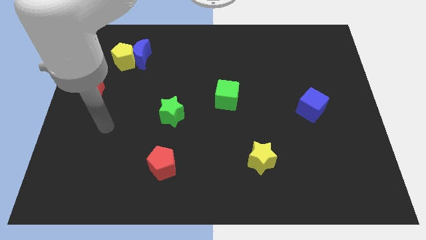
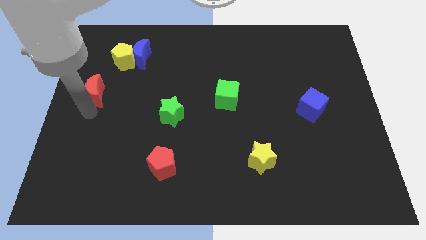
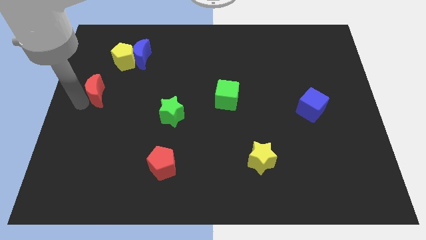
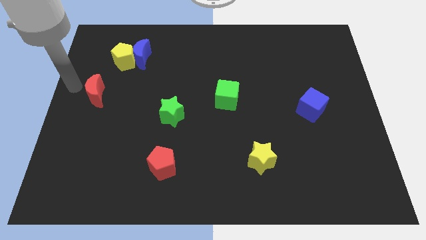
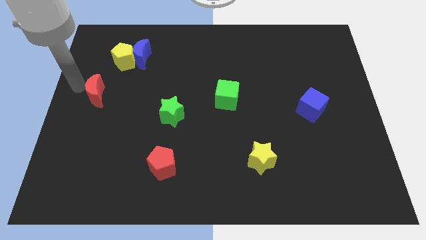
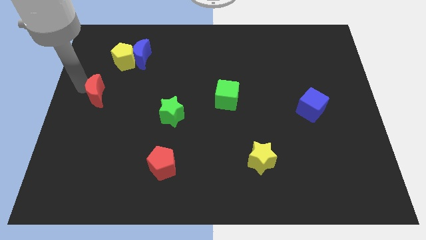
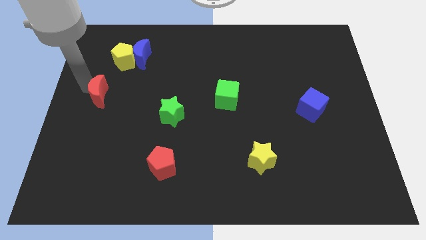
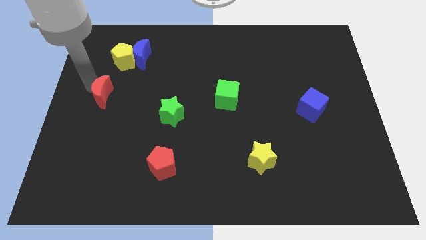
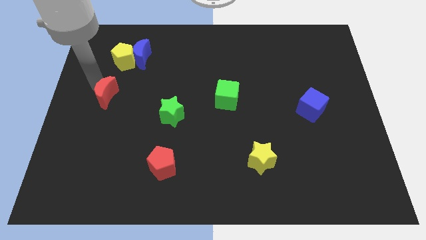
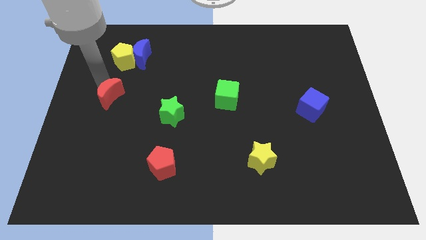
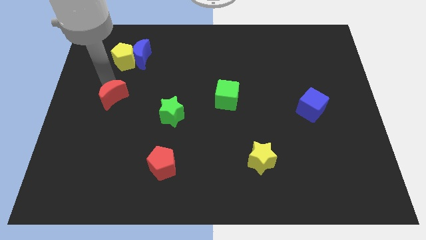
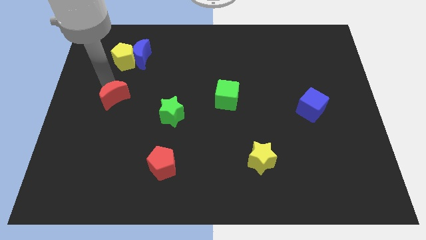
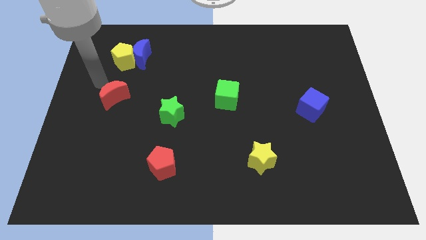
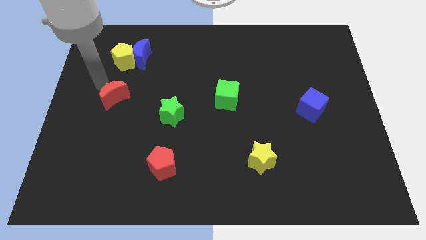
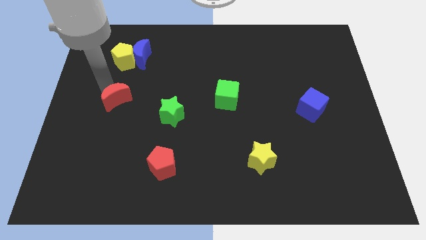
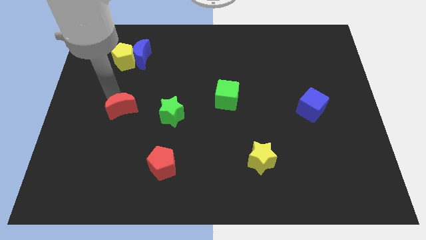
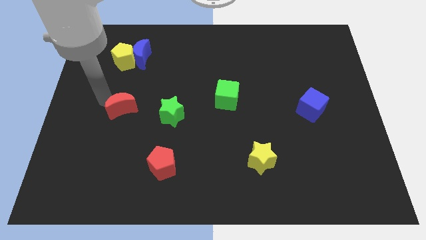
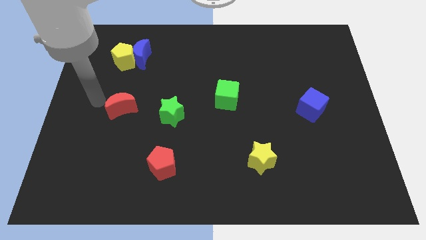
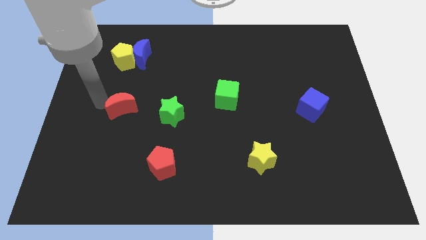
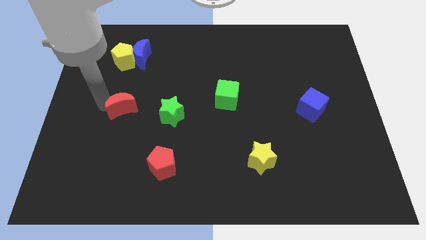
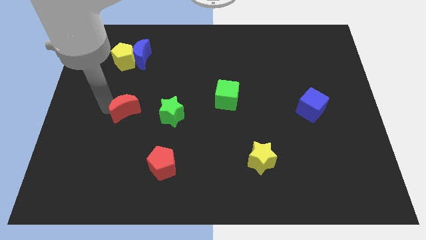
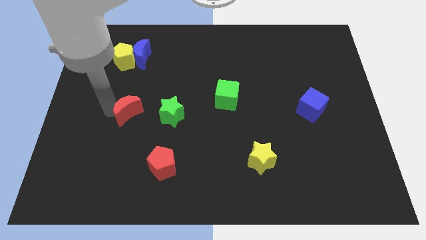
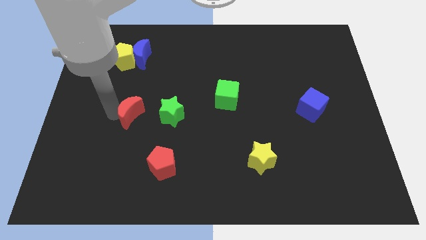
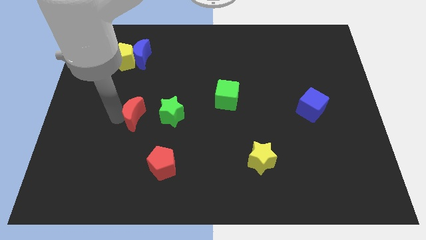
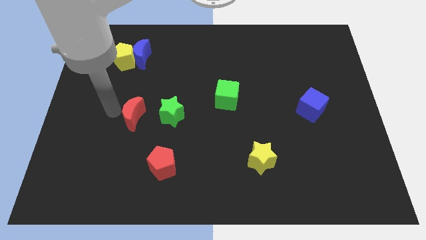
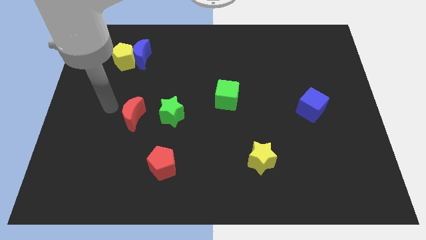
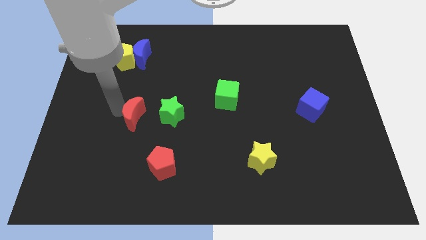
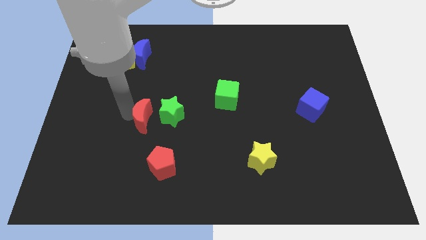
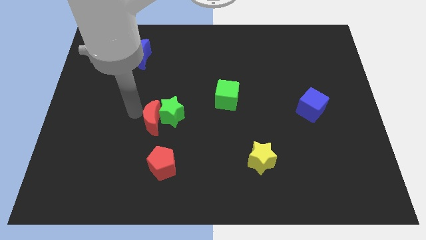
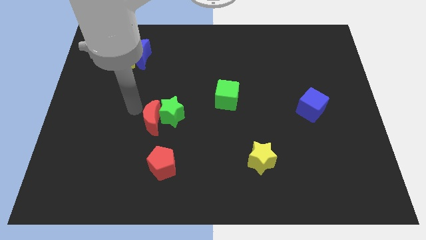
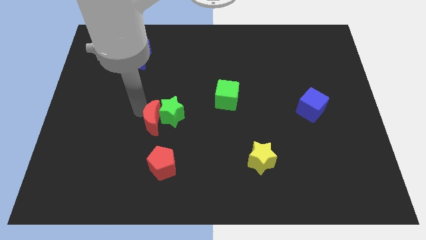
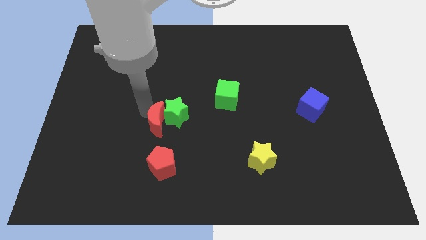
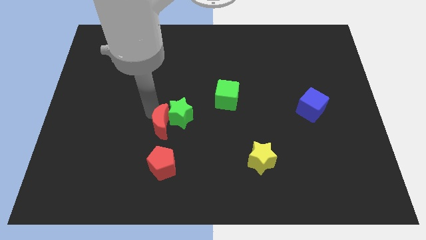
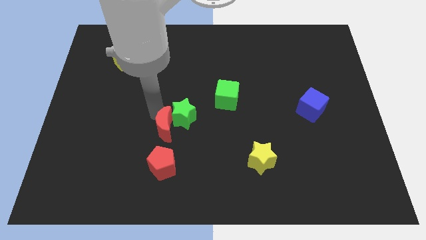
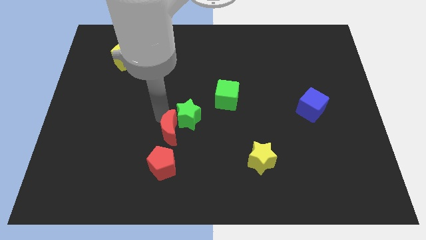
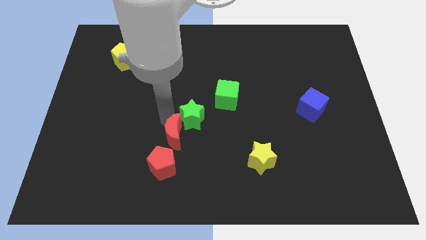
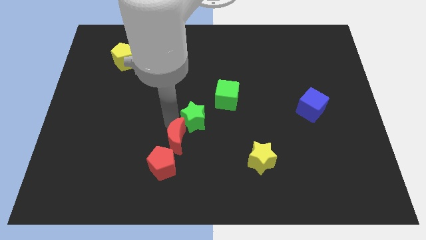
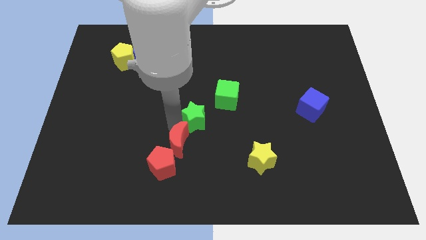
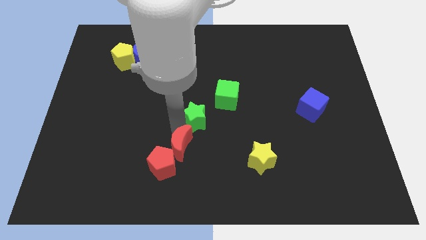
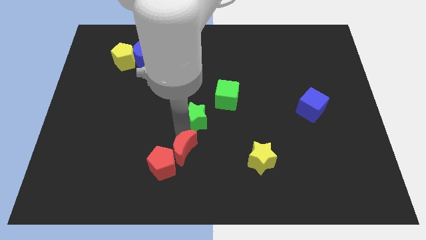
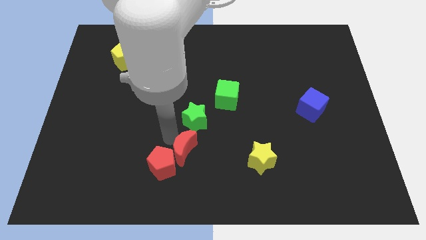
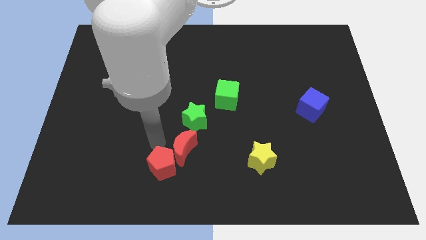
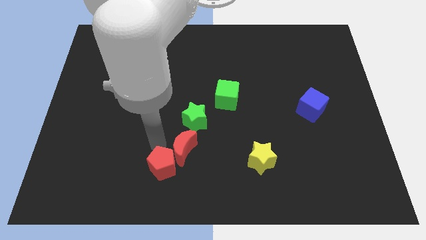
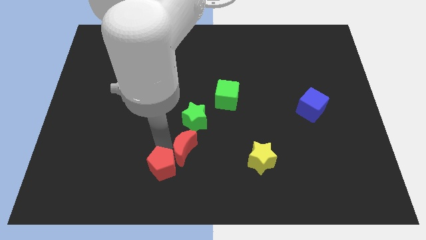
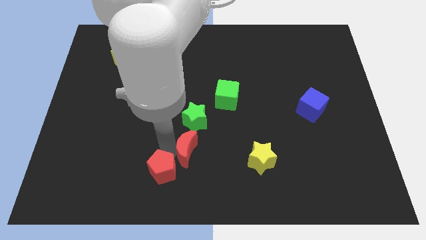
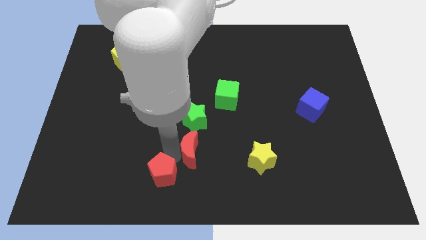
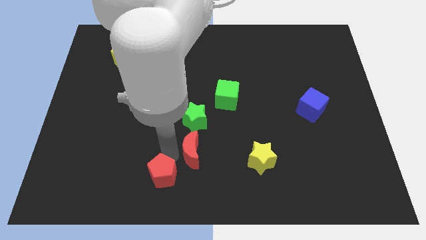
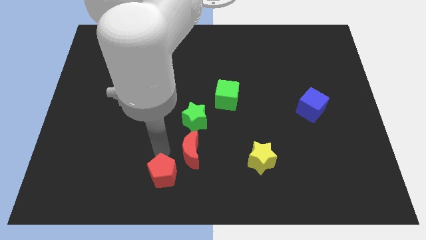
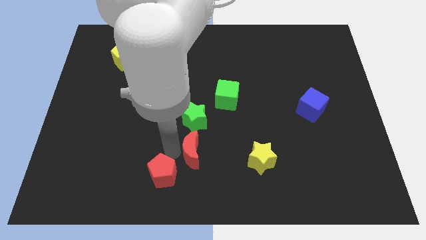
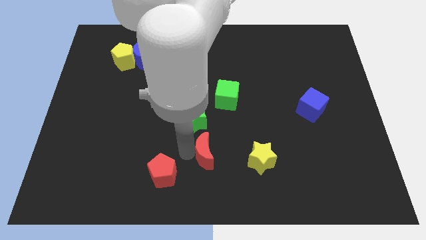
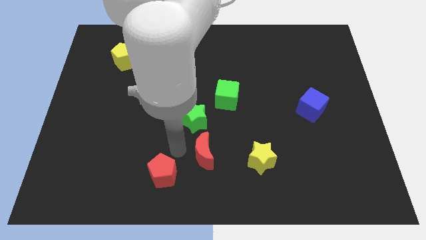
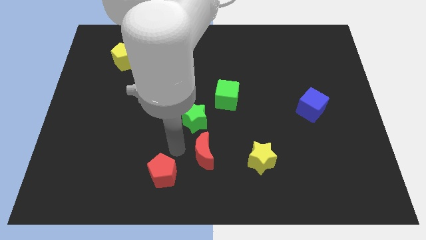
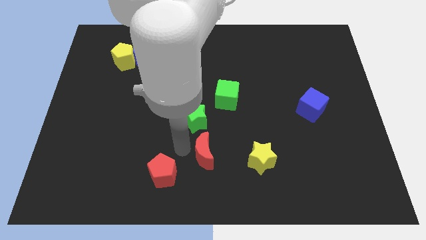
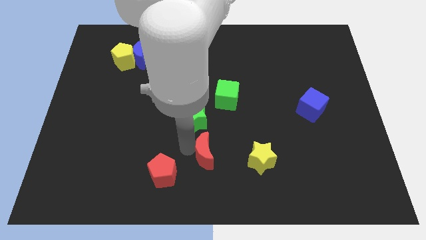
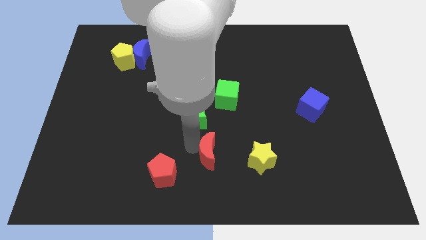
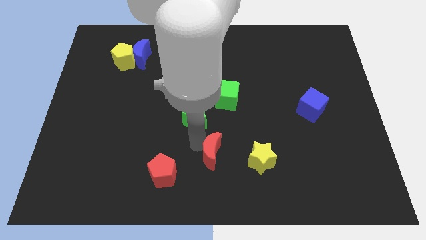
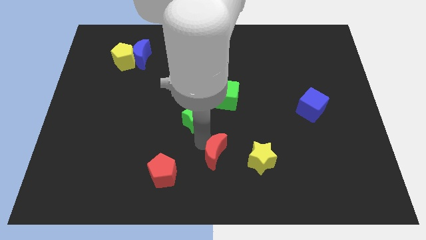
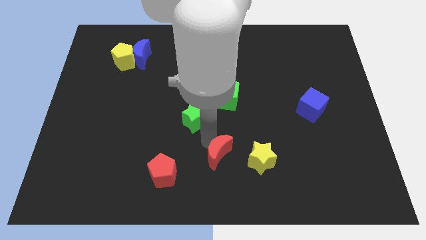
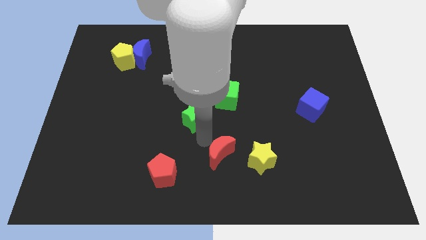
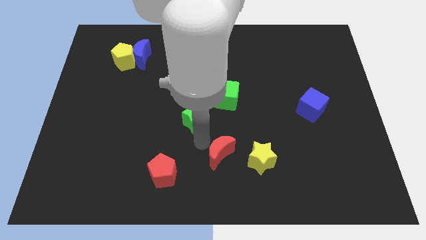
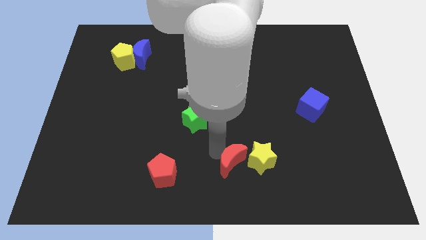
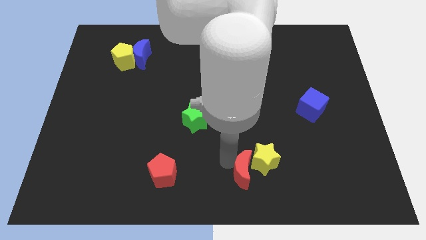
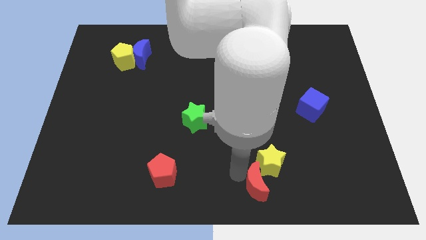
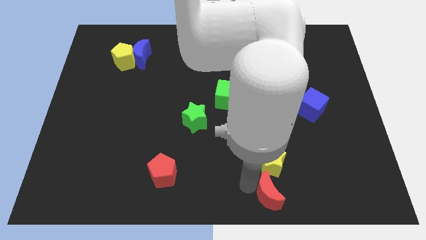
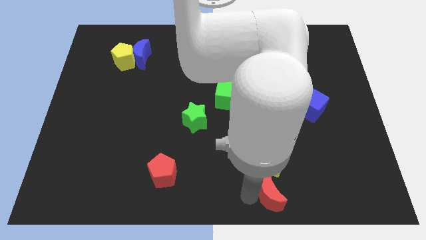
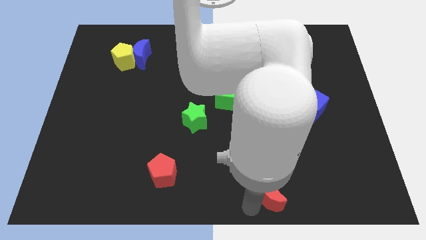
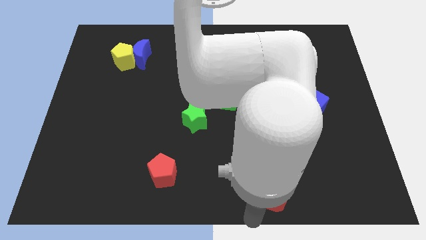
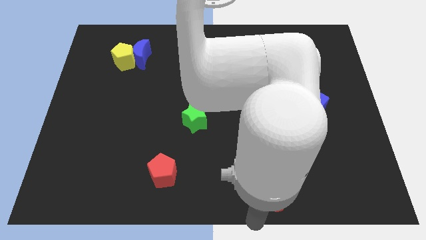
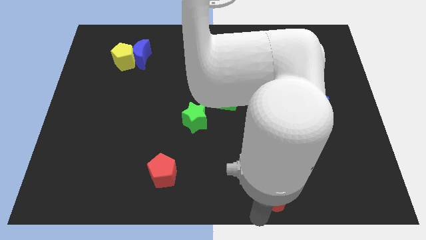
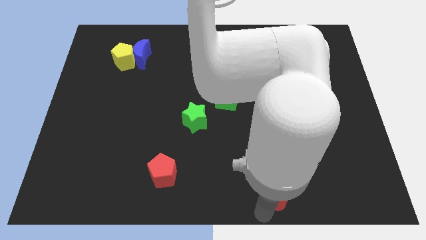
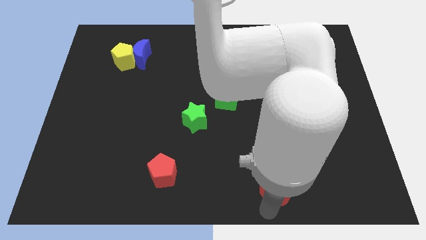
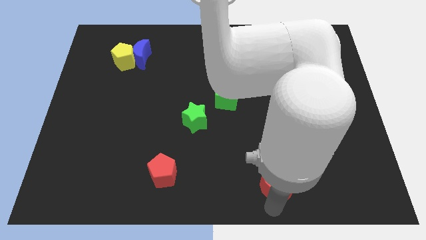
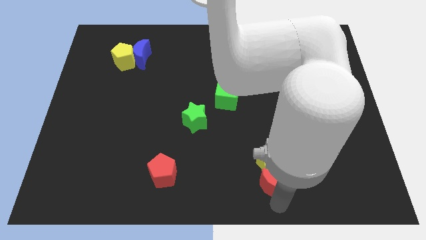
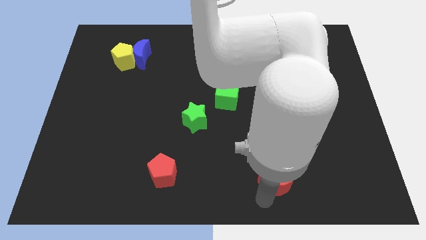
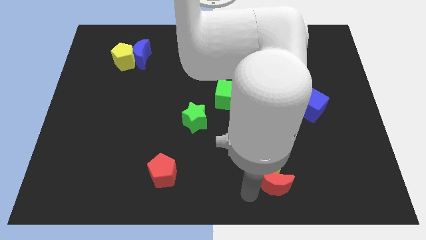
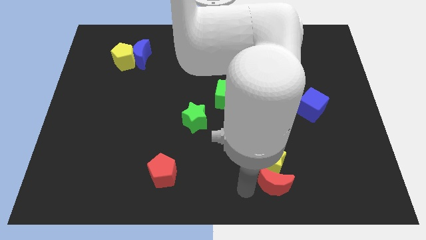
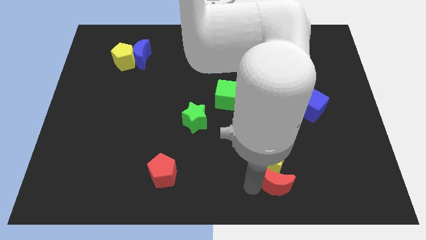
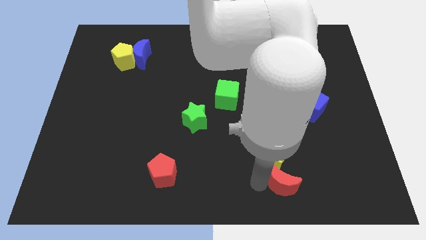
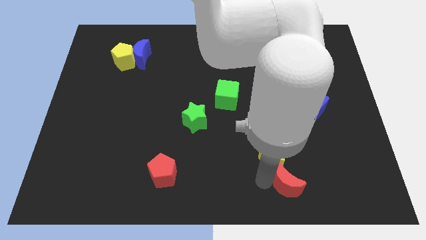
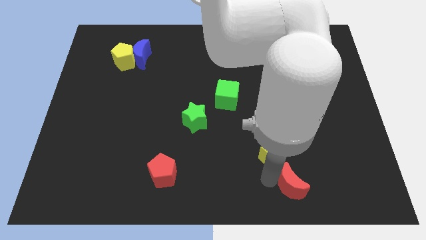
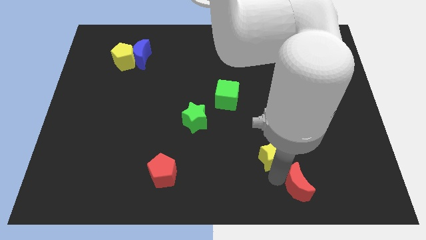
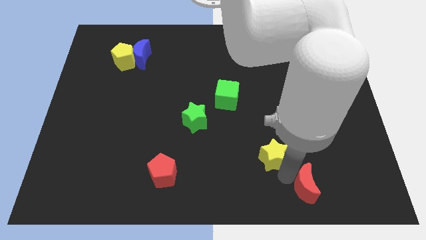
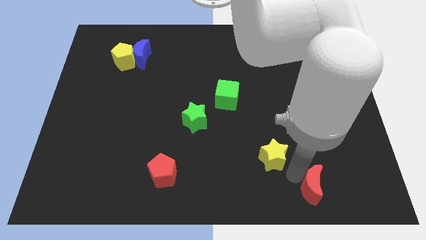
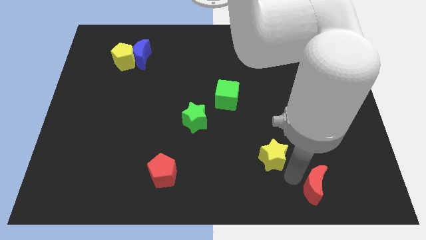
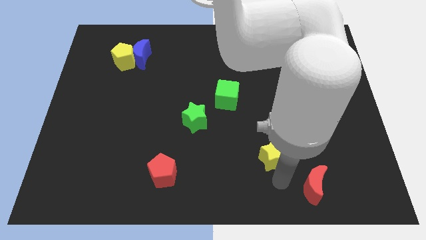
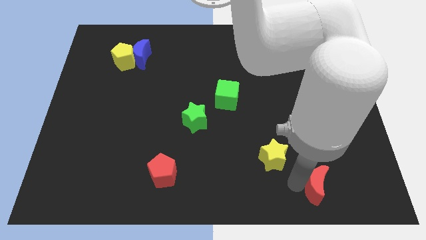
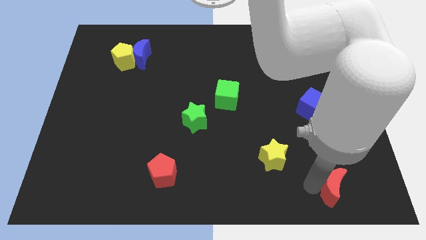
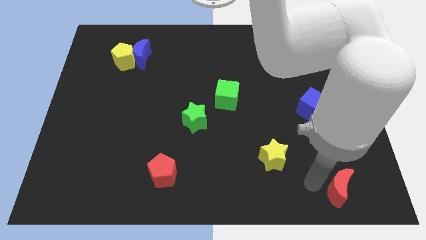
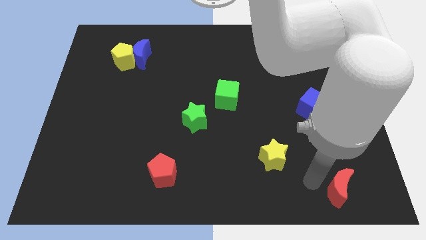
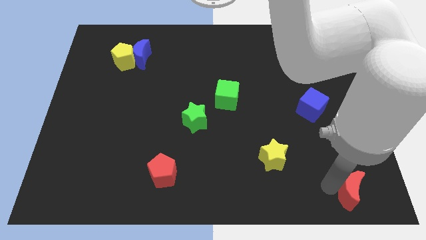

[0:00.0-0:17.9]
move the red moon to the bottom right
